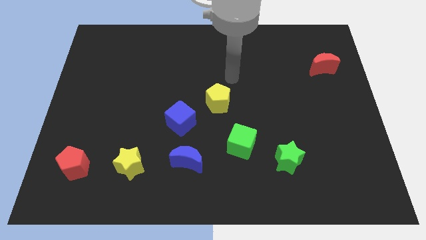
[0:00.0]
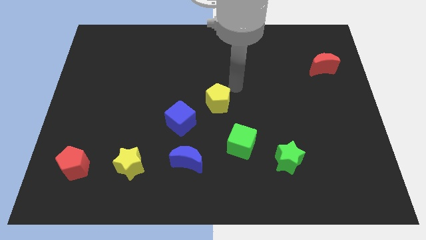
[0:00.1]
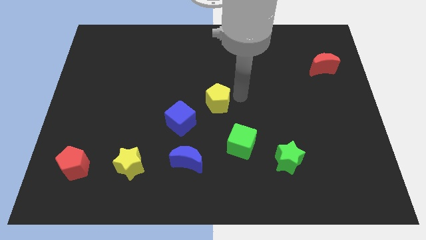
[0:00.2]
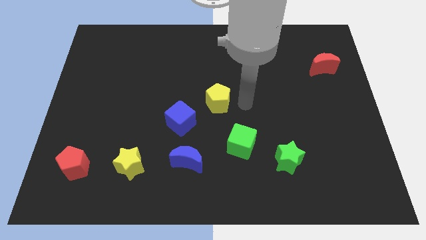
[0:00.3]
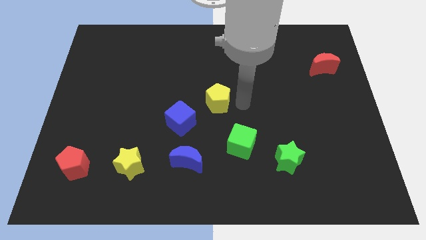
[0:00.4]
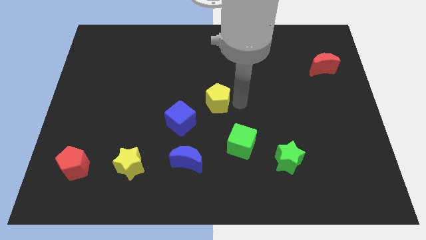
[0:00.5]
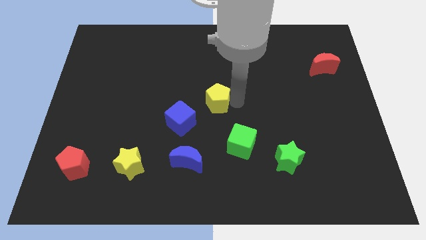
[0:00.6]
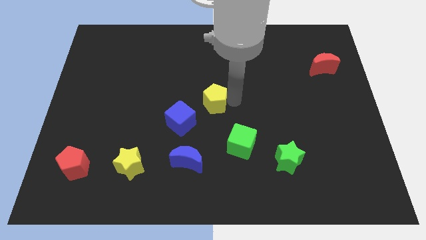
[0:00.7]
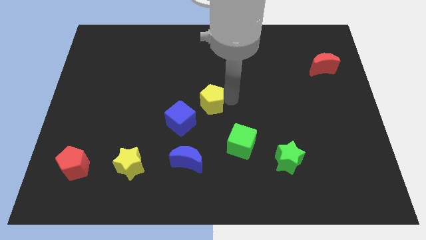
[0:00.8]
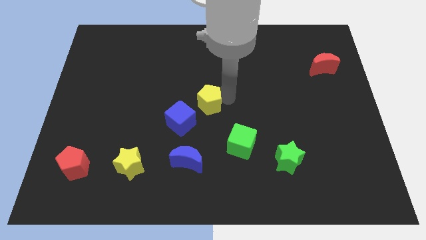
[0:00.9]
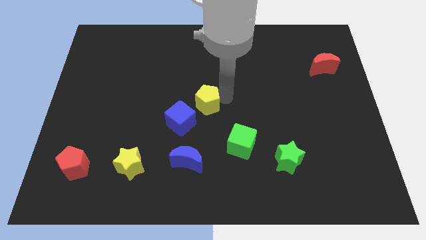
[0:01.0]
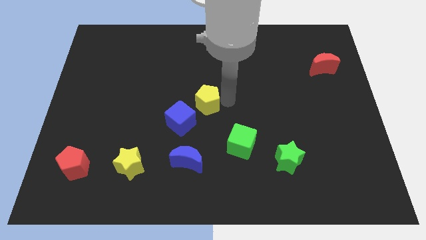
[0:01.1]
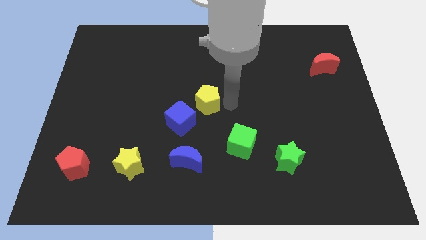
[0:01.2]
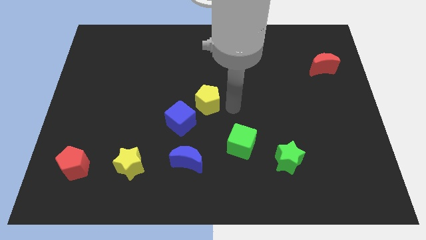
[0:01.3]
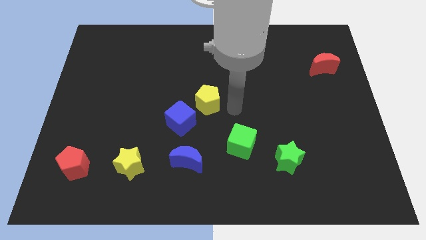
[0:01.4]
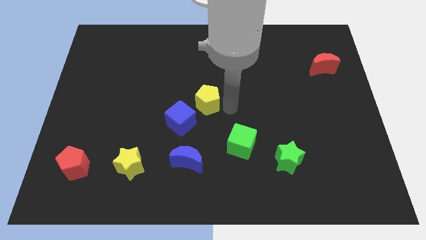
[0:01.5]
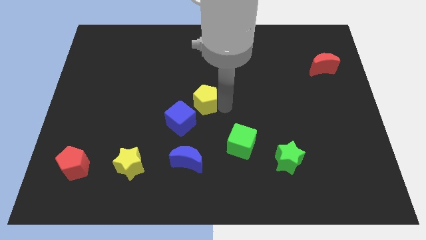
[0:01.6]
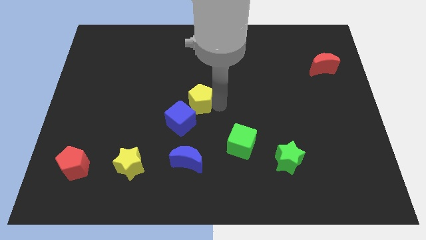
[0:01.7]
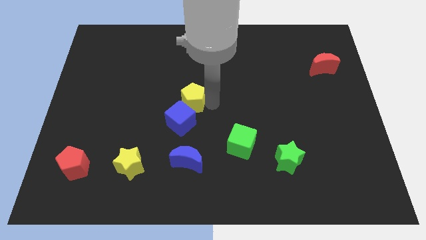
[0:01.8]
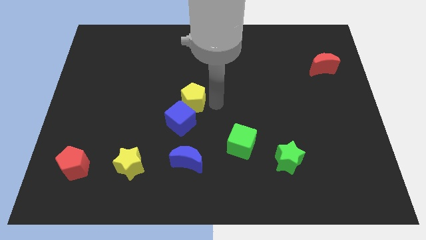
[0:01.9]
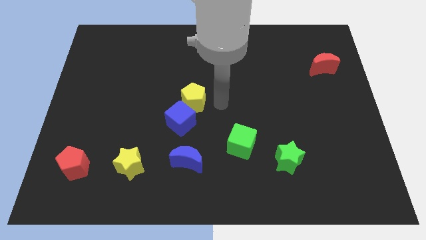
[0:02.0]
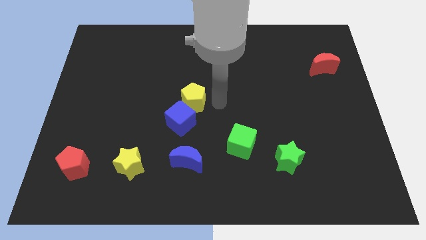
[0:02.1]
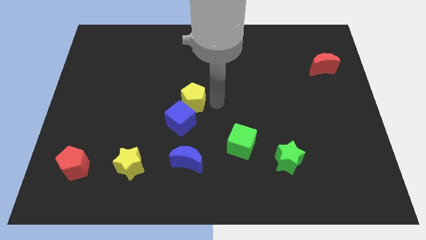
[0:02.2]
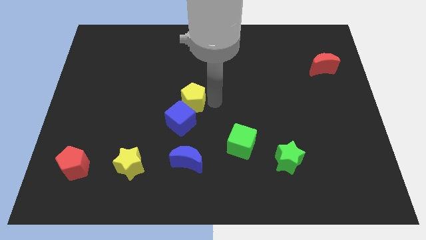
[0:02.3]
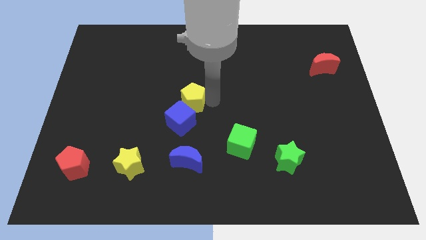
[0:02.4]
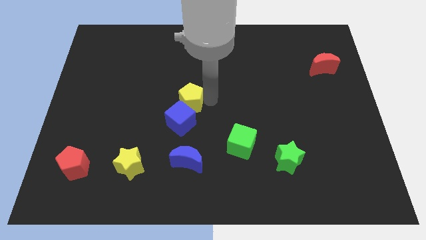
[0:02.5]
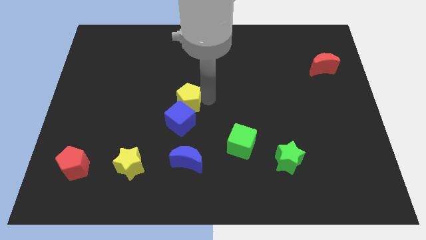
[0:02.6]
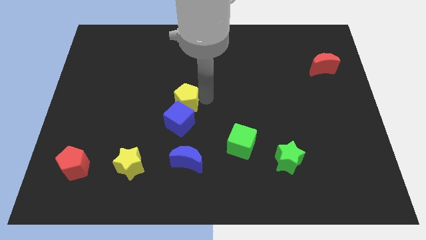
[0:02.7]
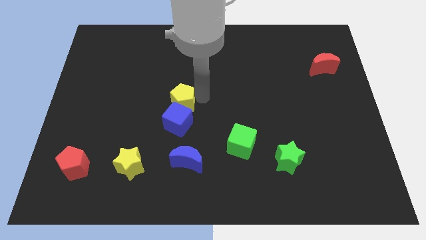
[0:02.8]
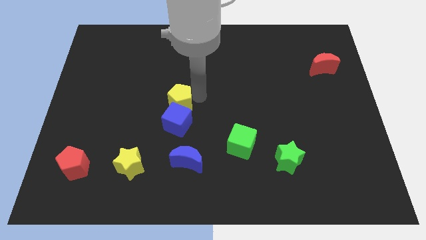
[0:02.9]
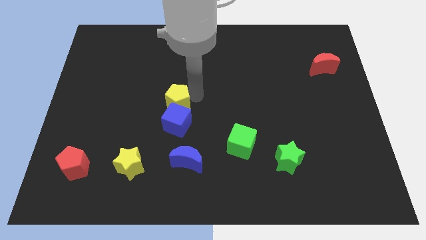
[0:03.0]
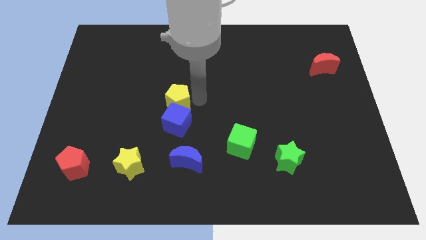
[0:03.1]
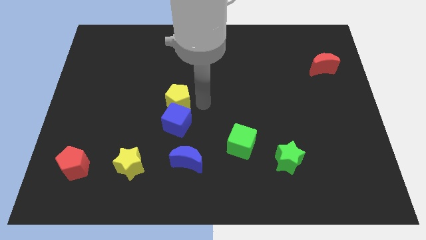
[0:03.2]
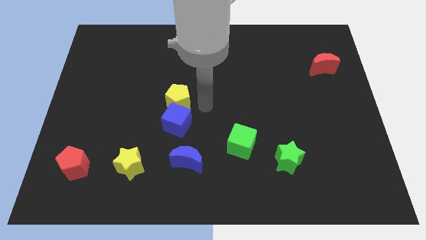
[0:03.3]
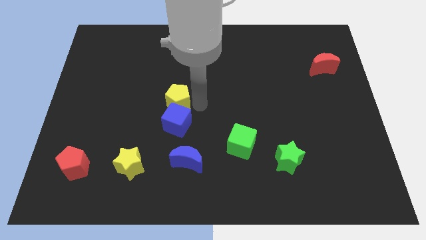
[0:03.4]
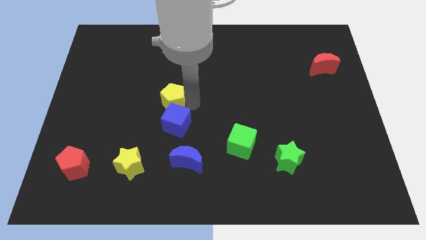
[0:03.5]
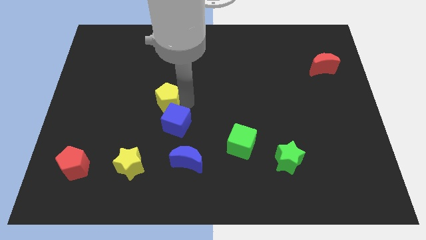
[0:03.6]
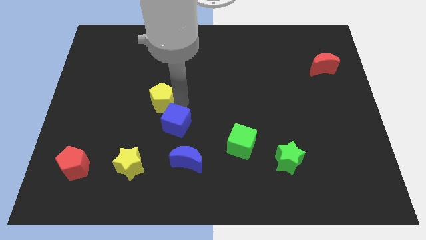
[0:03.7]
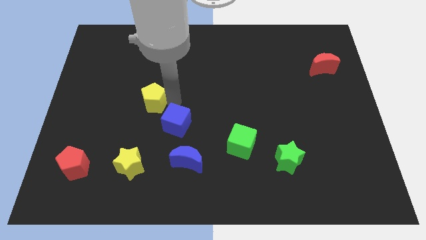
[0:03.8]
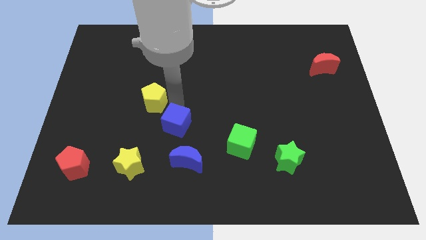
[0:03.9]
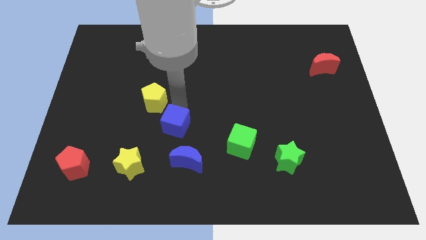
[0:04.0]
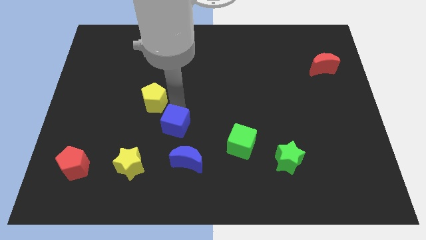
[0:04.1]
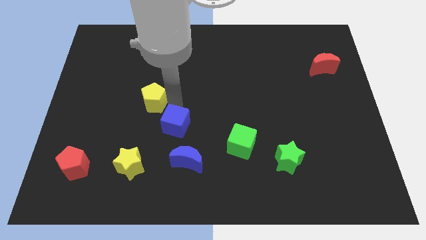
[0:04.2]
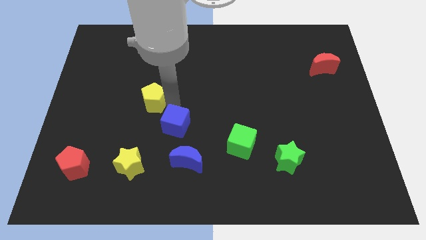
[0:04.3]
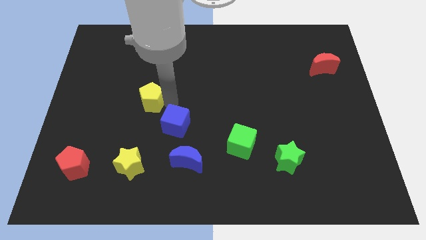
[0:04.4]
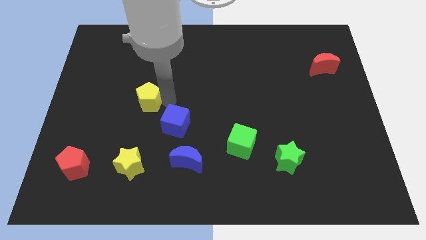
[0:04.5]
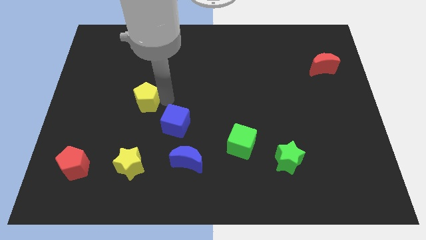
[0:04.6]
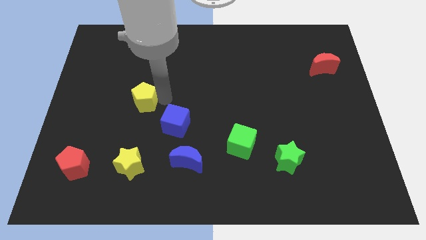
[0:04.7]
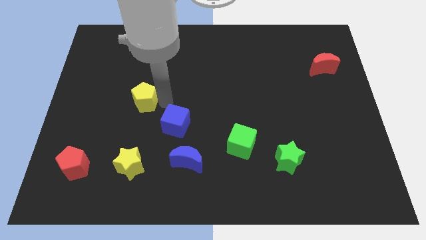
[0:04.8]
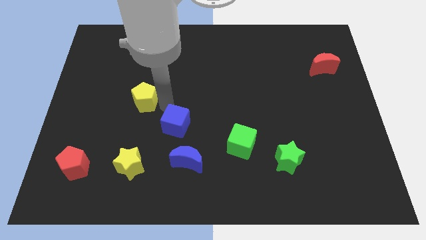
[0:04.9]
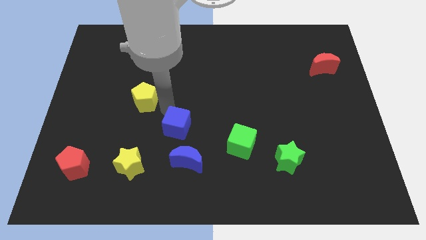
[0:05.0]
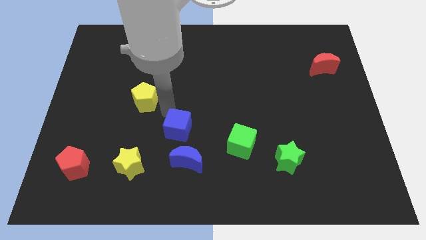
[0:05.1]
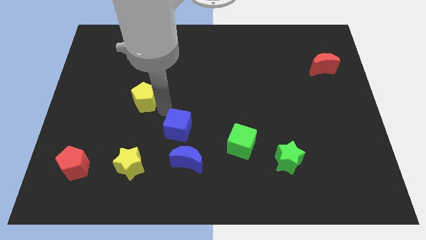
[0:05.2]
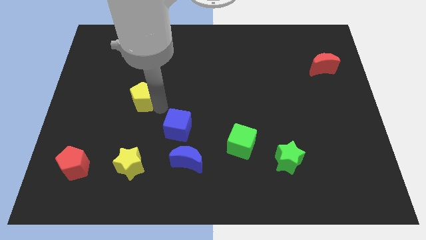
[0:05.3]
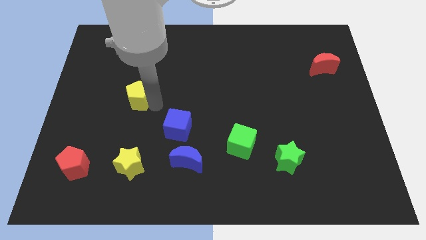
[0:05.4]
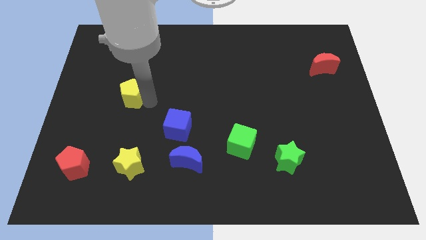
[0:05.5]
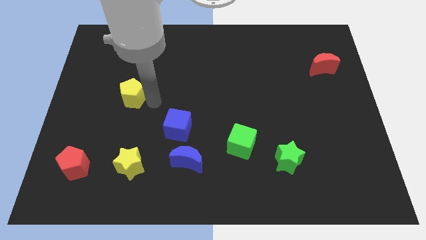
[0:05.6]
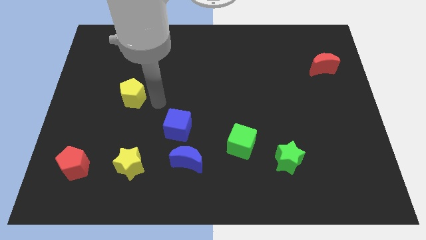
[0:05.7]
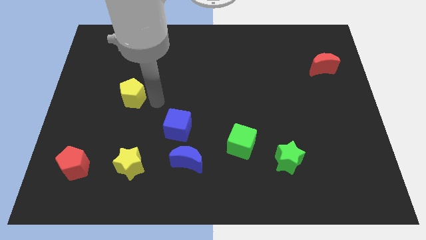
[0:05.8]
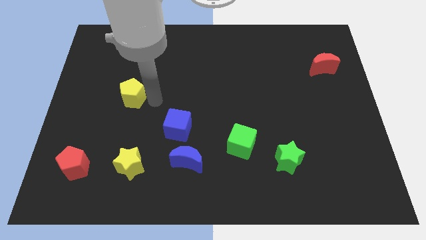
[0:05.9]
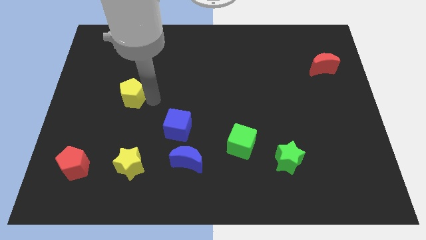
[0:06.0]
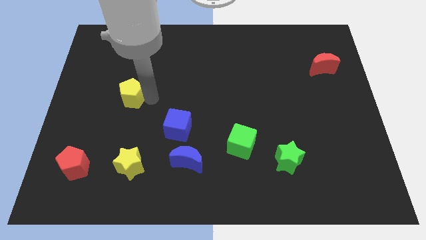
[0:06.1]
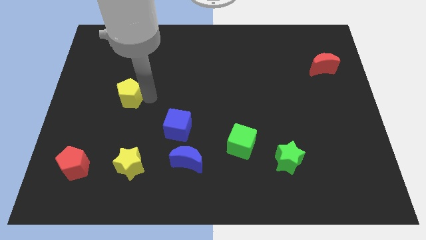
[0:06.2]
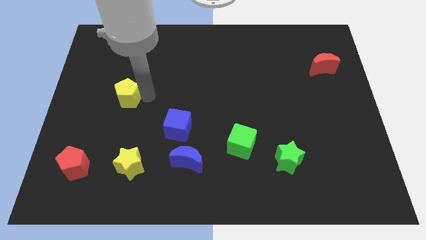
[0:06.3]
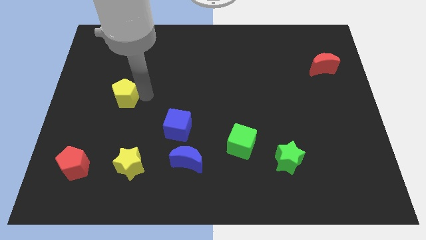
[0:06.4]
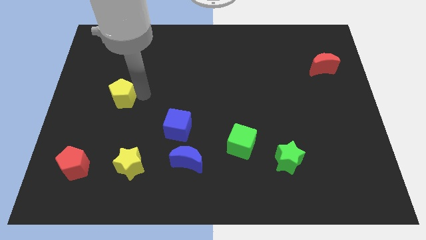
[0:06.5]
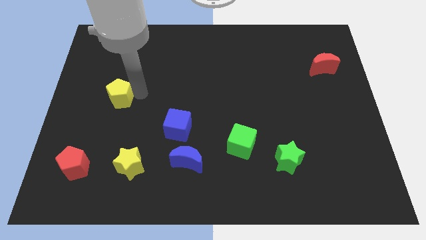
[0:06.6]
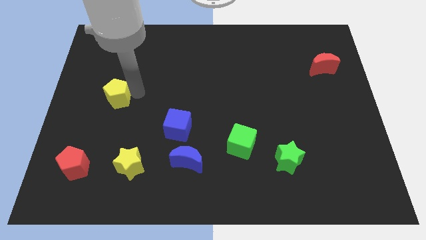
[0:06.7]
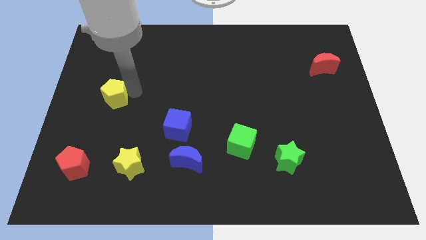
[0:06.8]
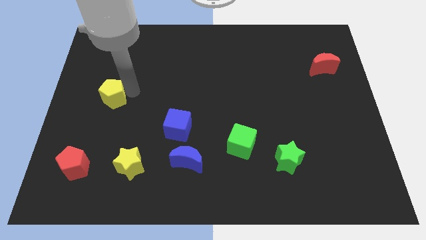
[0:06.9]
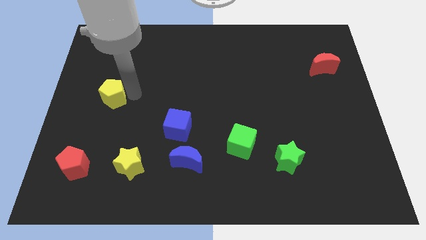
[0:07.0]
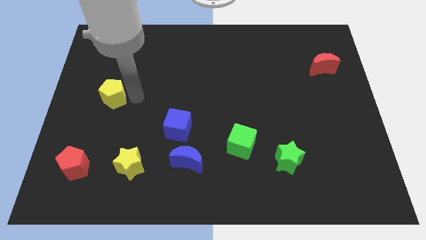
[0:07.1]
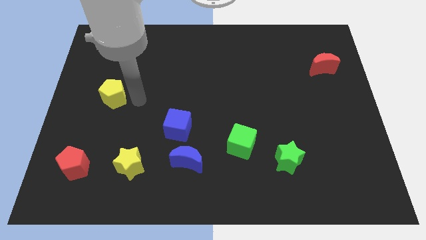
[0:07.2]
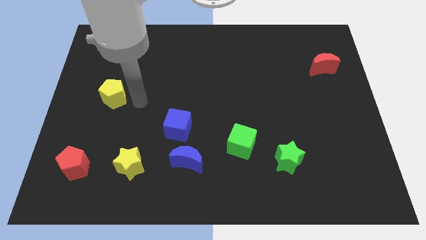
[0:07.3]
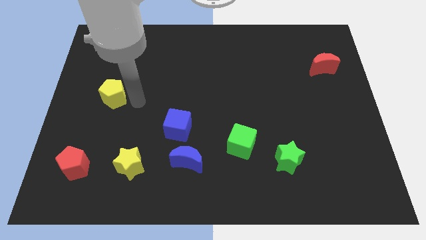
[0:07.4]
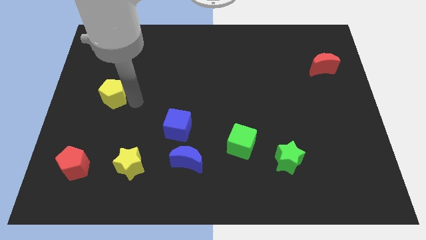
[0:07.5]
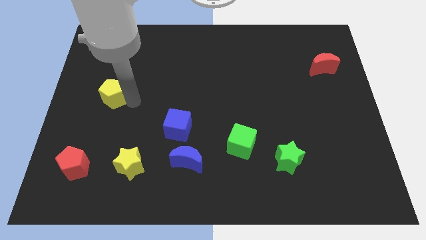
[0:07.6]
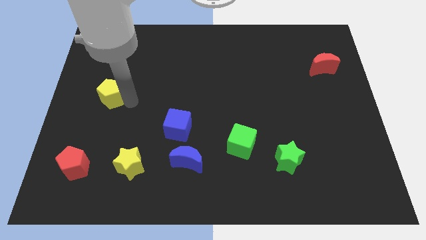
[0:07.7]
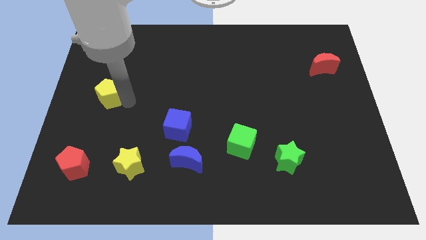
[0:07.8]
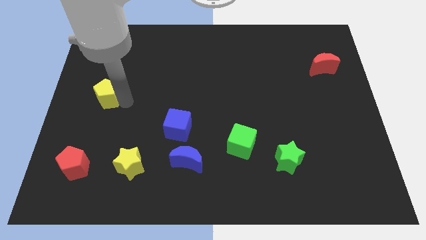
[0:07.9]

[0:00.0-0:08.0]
push the yellow pentagon to the left side
